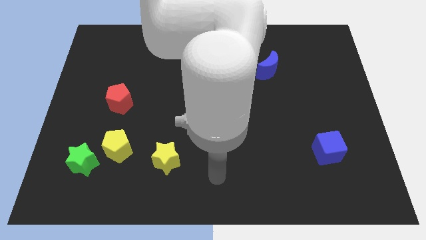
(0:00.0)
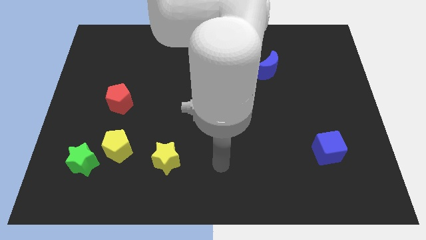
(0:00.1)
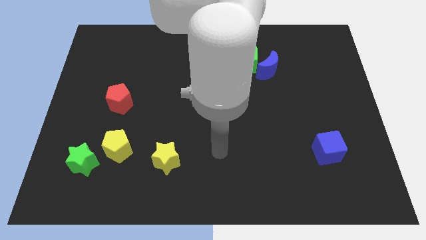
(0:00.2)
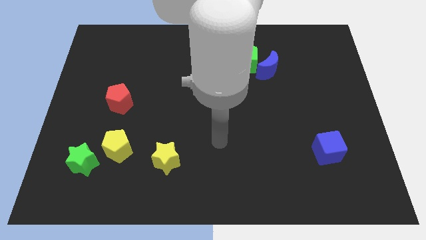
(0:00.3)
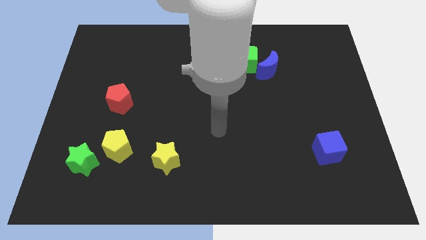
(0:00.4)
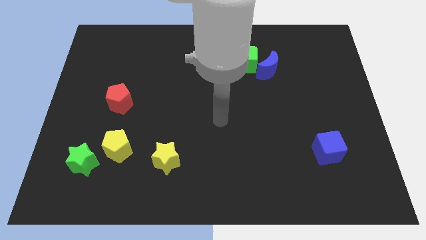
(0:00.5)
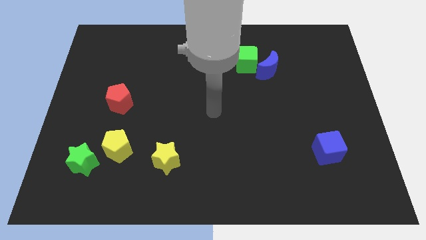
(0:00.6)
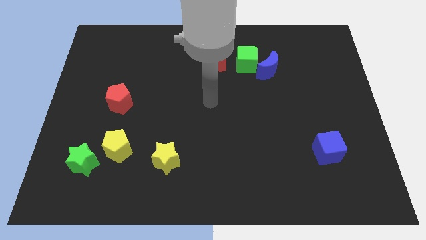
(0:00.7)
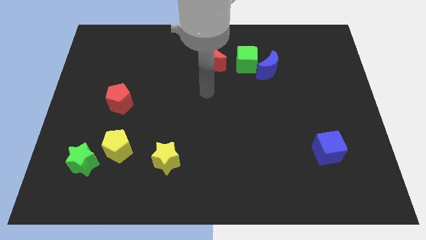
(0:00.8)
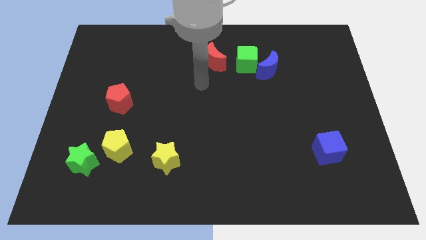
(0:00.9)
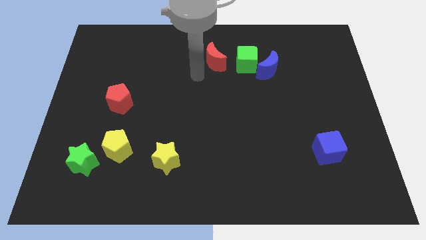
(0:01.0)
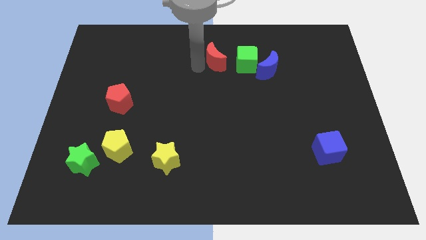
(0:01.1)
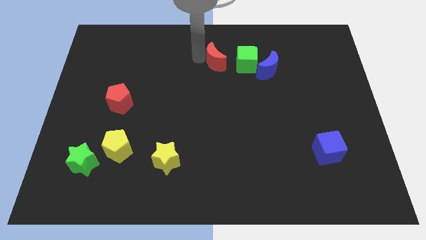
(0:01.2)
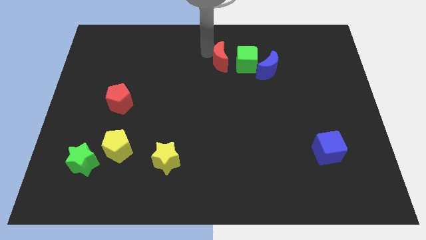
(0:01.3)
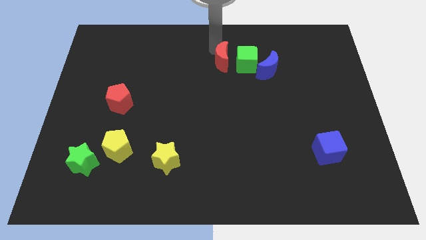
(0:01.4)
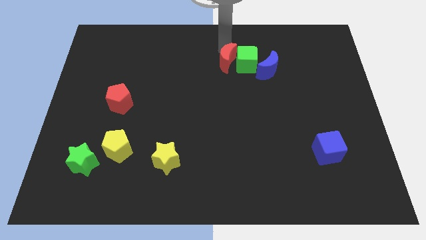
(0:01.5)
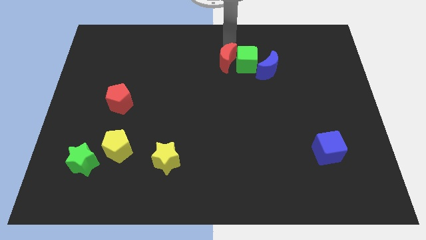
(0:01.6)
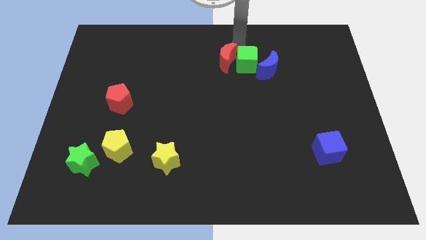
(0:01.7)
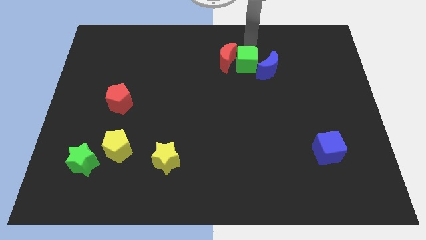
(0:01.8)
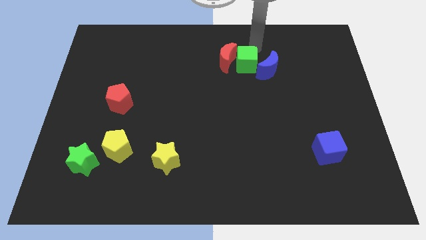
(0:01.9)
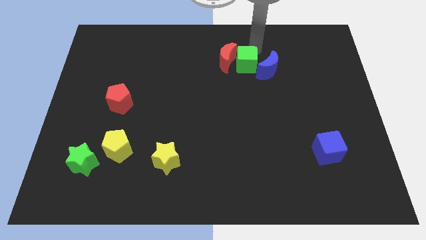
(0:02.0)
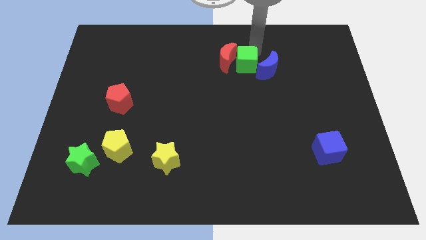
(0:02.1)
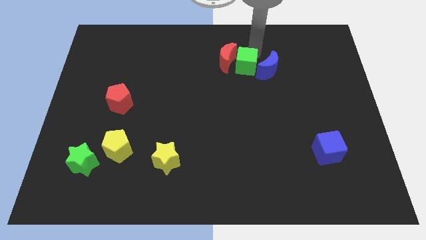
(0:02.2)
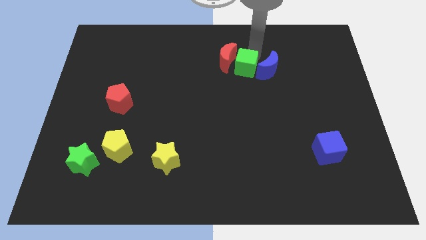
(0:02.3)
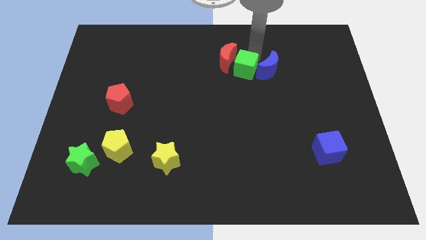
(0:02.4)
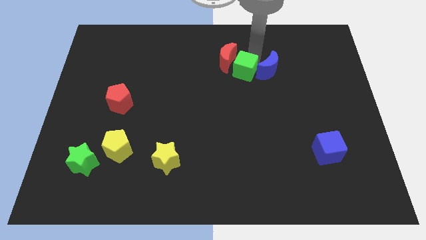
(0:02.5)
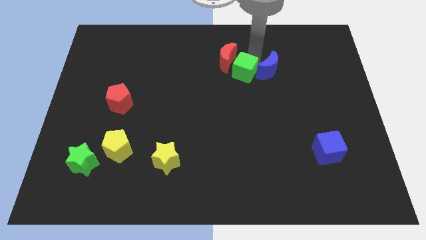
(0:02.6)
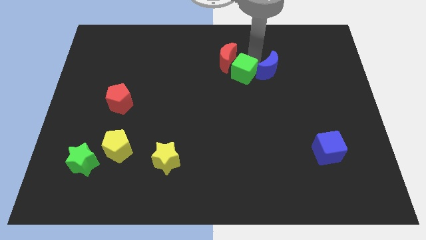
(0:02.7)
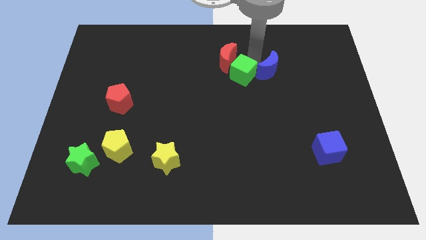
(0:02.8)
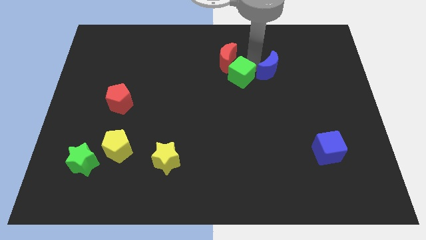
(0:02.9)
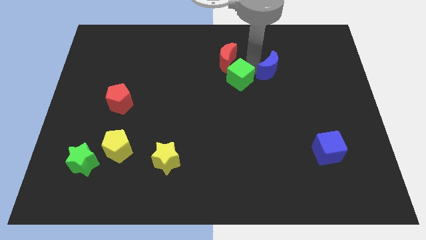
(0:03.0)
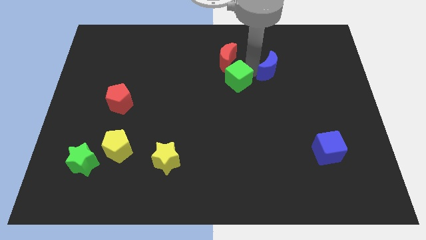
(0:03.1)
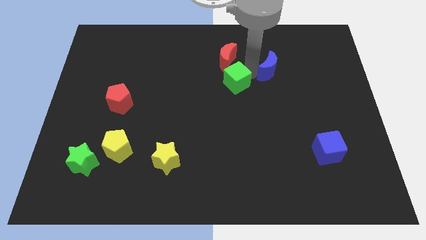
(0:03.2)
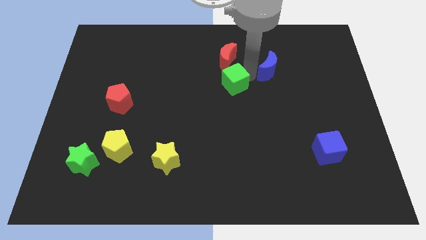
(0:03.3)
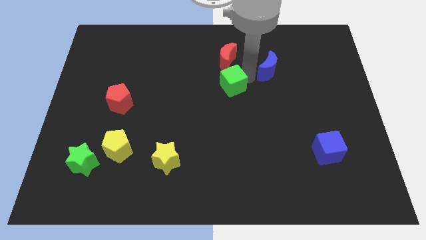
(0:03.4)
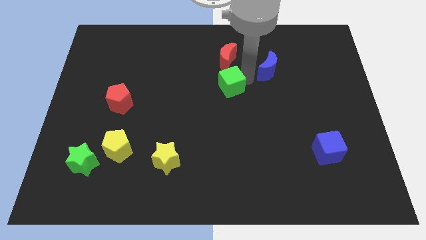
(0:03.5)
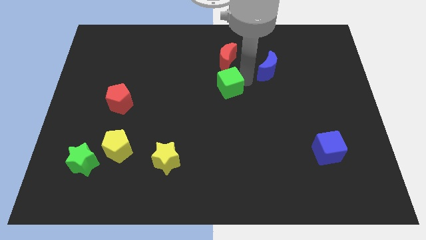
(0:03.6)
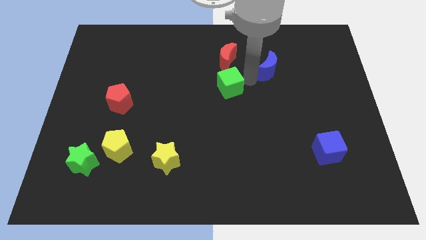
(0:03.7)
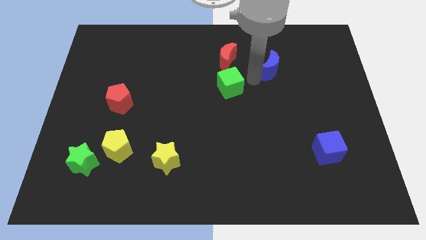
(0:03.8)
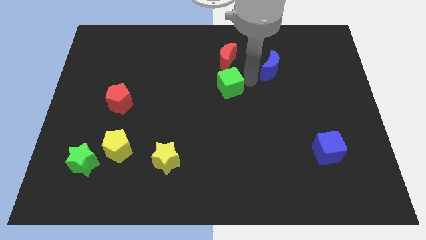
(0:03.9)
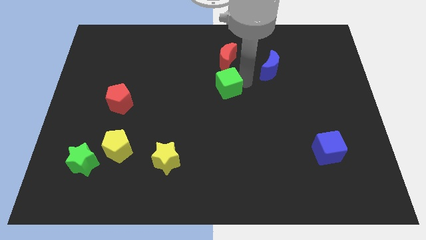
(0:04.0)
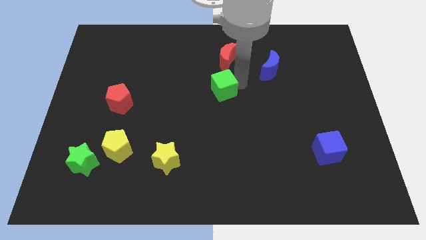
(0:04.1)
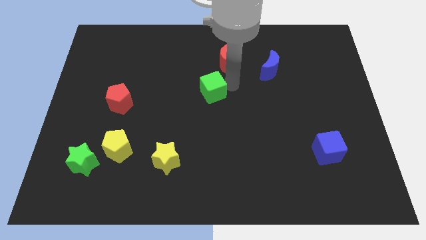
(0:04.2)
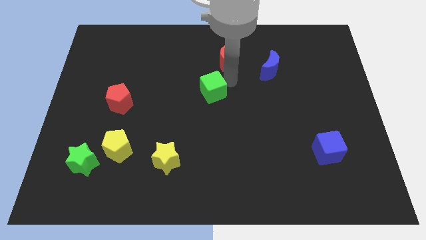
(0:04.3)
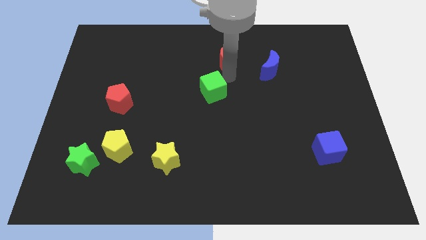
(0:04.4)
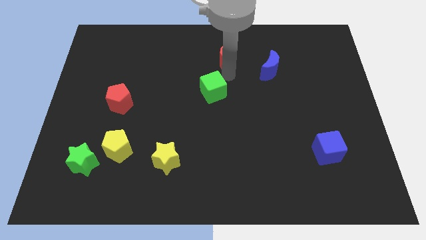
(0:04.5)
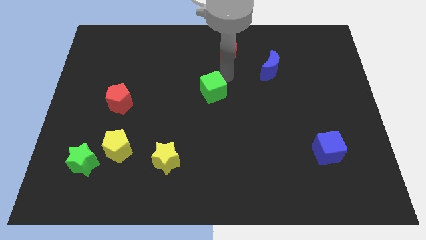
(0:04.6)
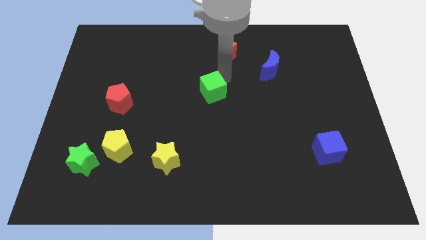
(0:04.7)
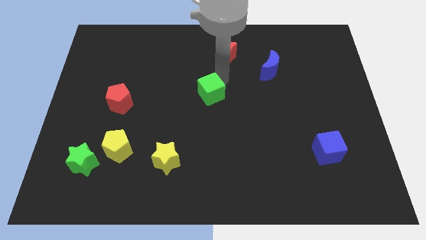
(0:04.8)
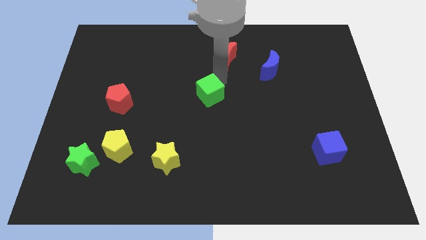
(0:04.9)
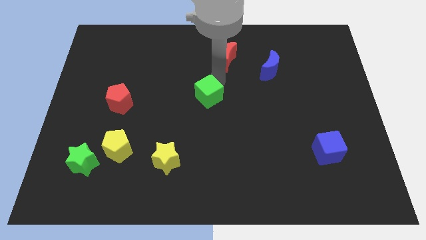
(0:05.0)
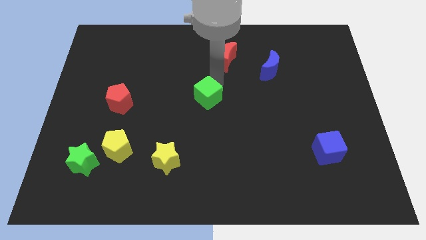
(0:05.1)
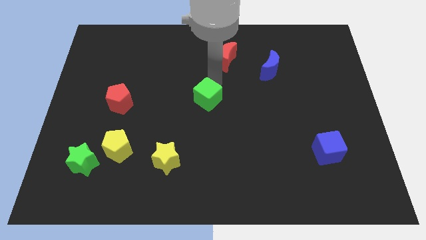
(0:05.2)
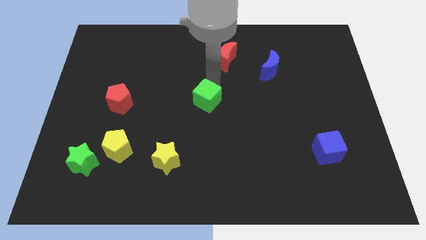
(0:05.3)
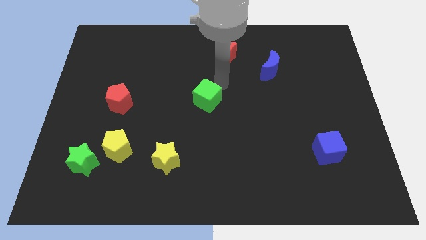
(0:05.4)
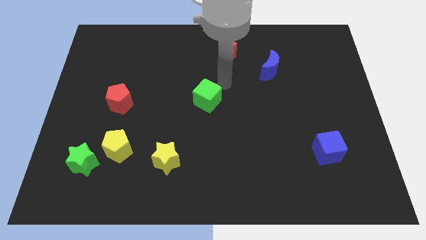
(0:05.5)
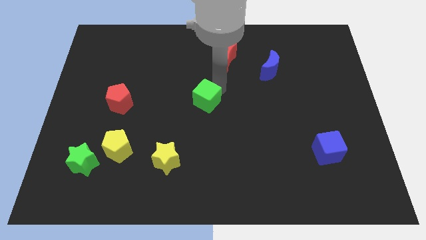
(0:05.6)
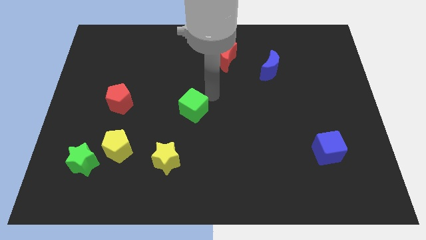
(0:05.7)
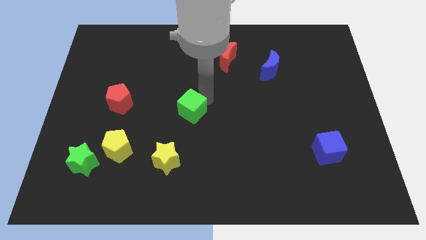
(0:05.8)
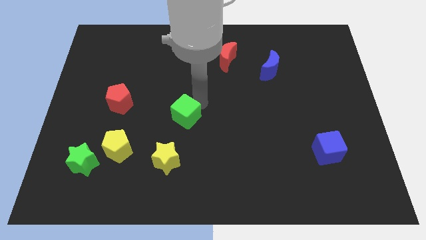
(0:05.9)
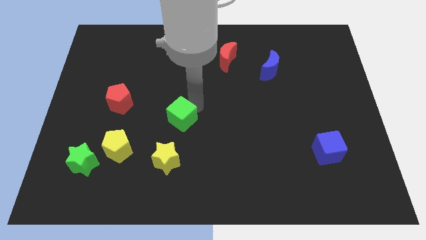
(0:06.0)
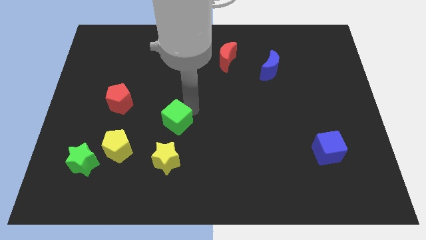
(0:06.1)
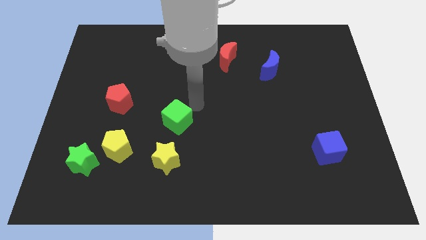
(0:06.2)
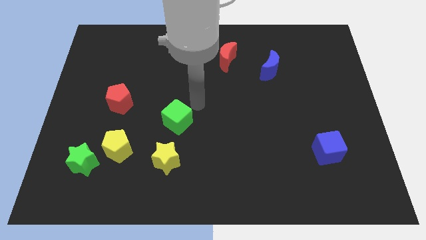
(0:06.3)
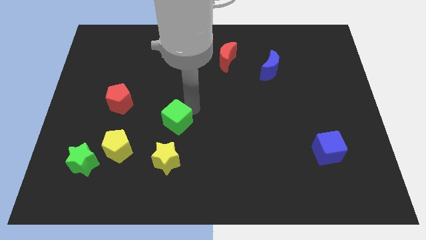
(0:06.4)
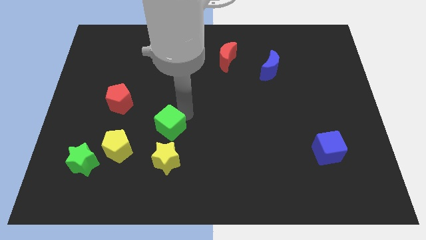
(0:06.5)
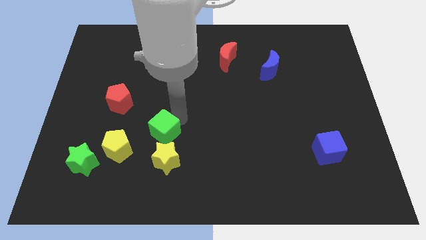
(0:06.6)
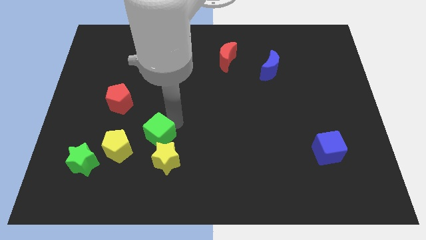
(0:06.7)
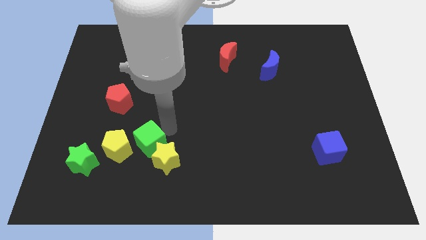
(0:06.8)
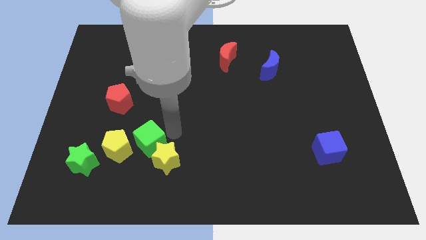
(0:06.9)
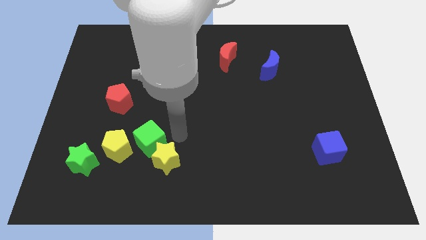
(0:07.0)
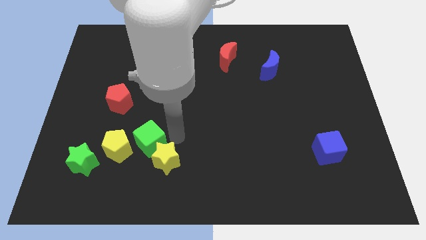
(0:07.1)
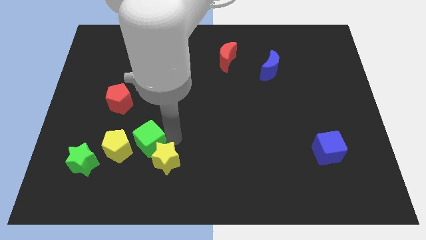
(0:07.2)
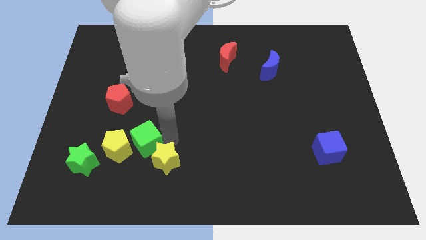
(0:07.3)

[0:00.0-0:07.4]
push the green cube next to the yellow pentagon
